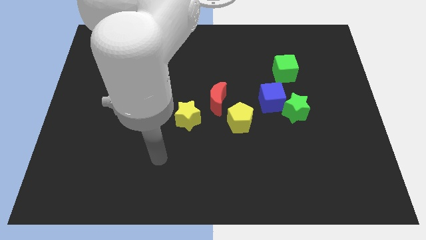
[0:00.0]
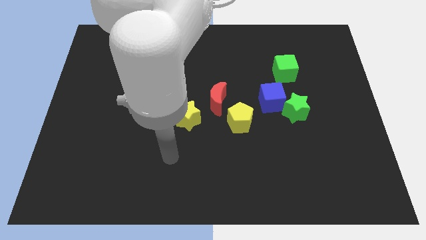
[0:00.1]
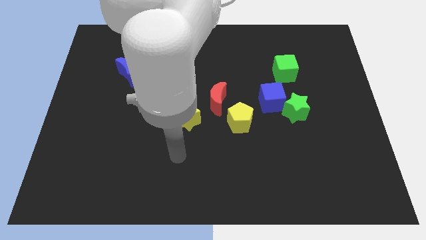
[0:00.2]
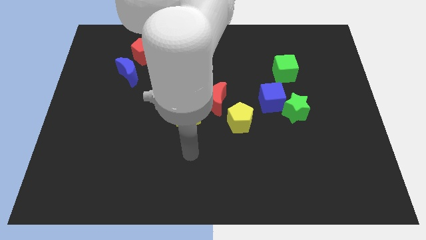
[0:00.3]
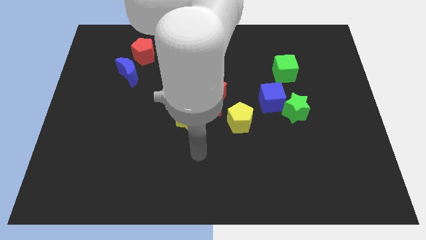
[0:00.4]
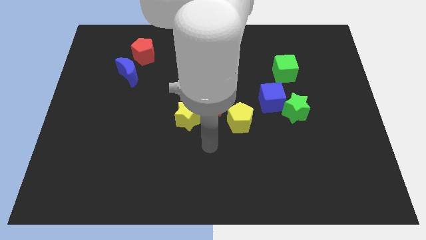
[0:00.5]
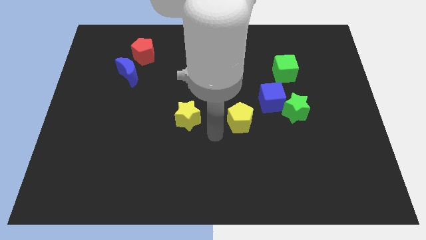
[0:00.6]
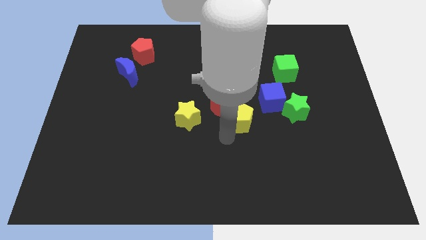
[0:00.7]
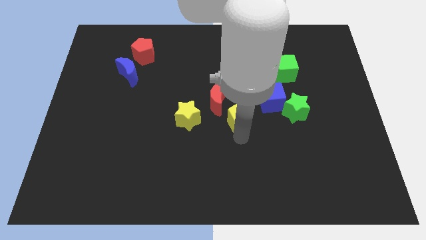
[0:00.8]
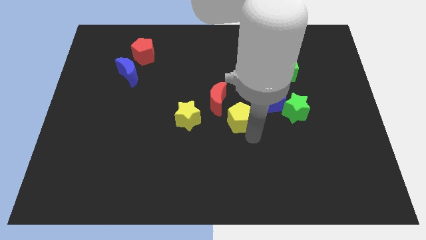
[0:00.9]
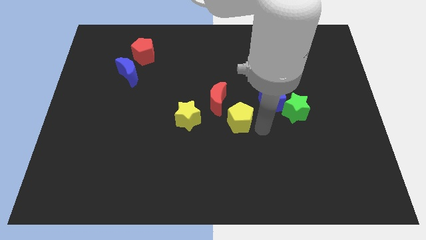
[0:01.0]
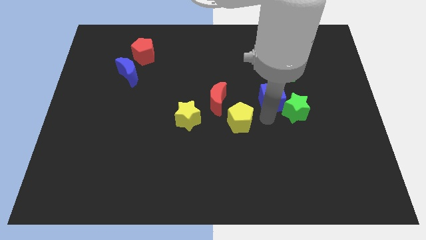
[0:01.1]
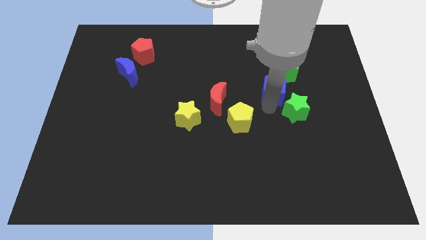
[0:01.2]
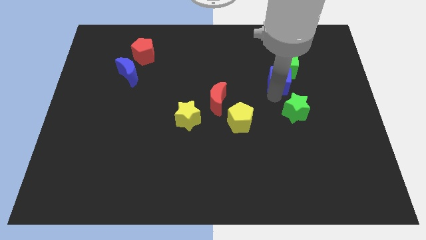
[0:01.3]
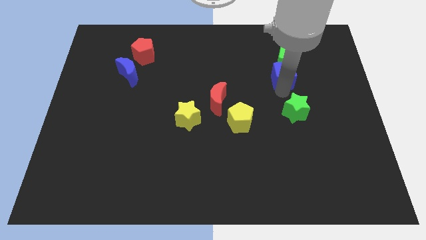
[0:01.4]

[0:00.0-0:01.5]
pull the green star apart from the blue cube

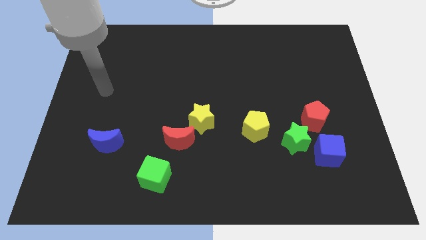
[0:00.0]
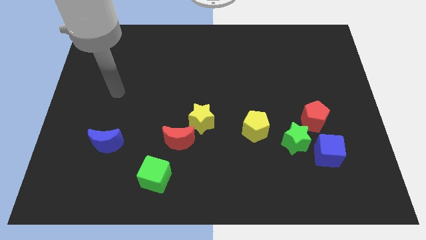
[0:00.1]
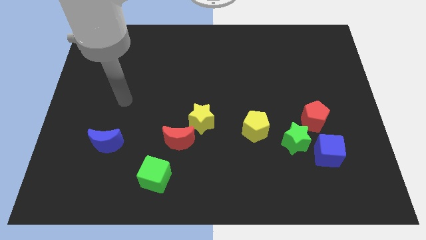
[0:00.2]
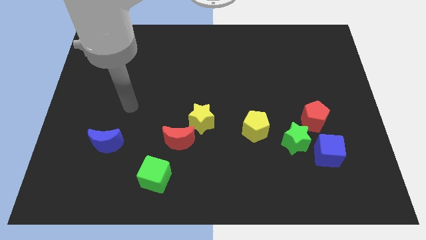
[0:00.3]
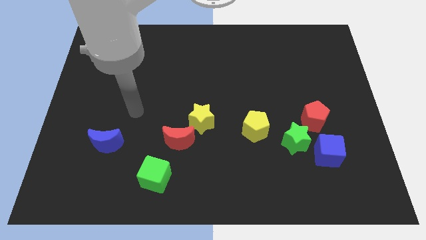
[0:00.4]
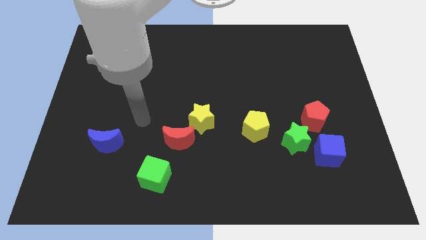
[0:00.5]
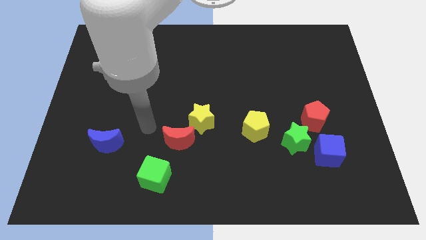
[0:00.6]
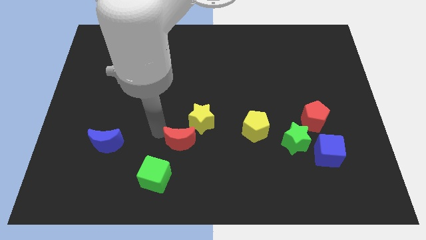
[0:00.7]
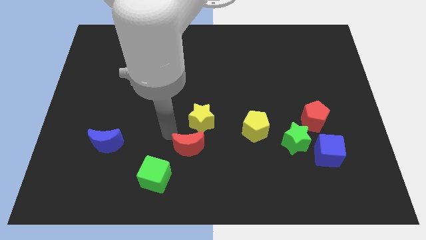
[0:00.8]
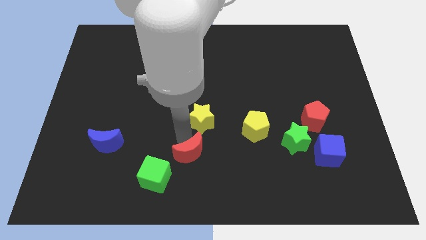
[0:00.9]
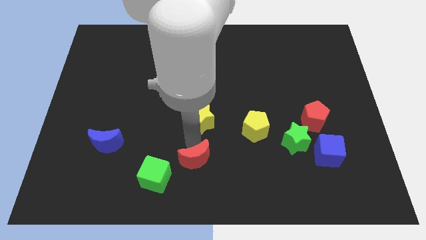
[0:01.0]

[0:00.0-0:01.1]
pull the yellow star apart from the red moon

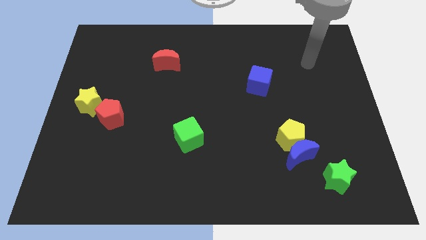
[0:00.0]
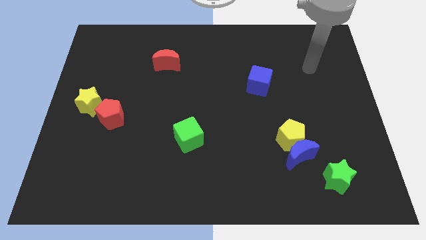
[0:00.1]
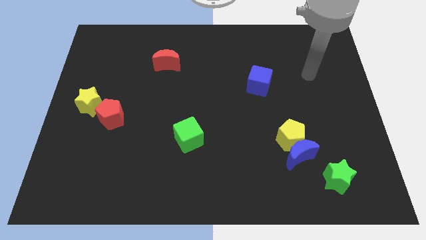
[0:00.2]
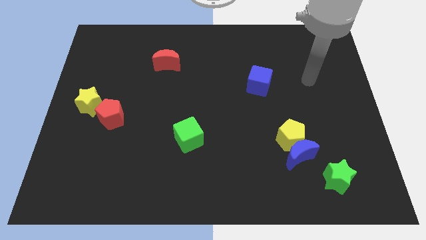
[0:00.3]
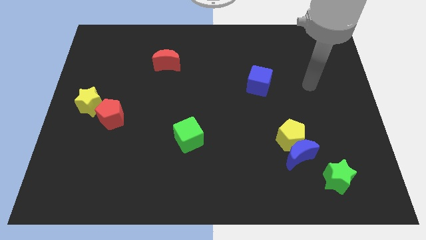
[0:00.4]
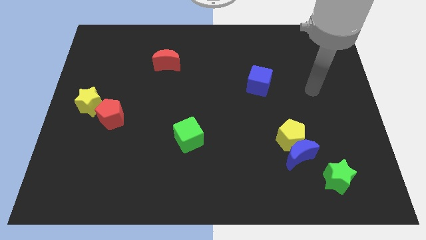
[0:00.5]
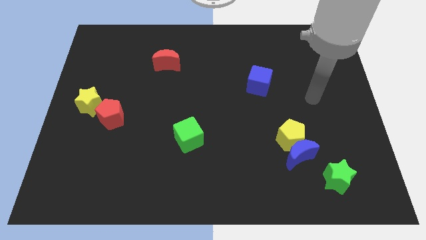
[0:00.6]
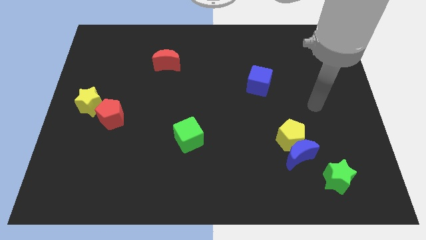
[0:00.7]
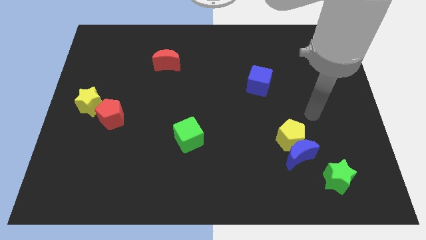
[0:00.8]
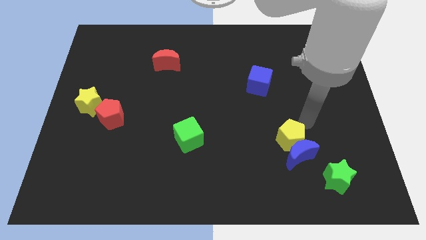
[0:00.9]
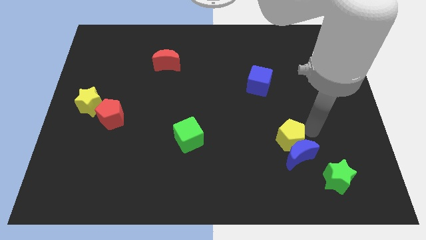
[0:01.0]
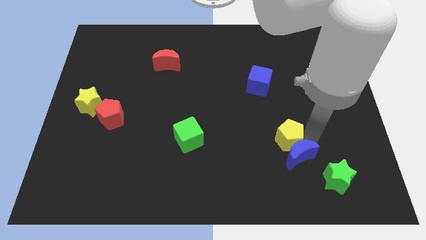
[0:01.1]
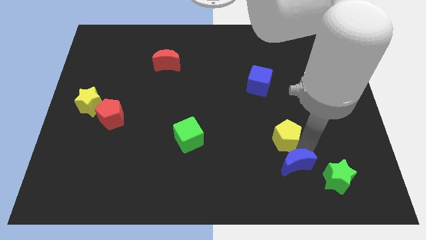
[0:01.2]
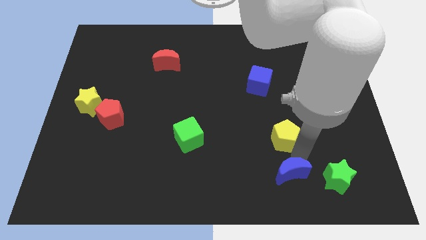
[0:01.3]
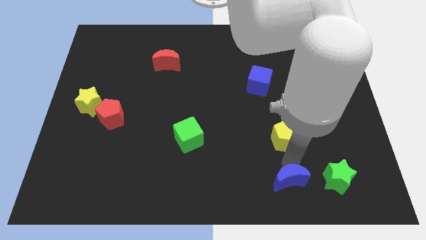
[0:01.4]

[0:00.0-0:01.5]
move the yellow pentagon away from the blue moon

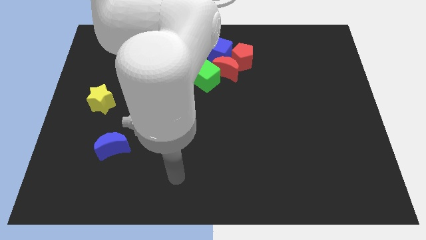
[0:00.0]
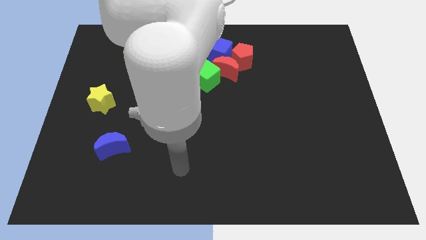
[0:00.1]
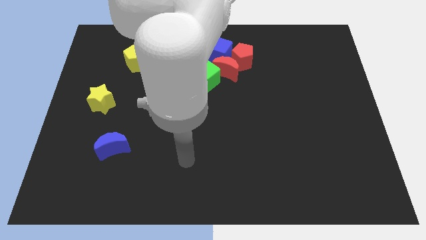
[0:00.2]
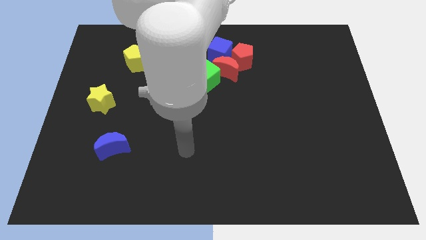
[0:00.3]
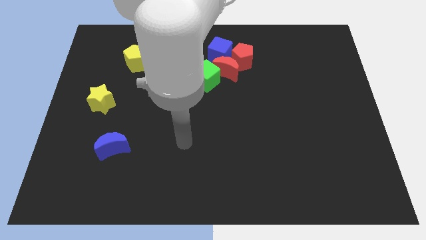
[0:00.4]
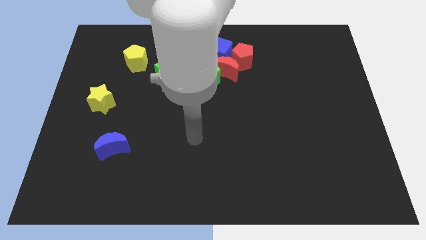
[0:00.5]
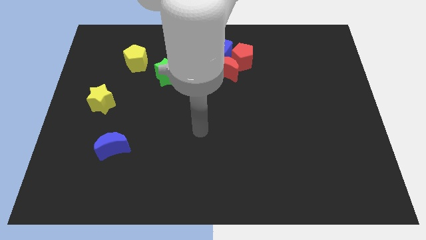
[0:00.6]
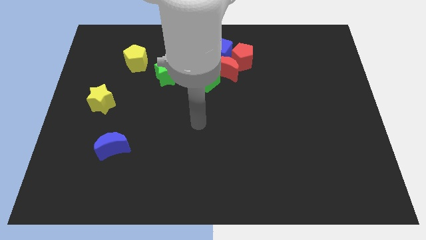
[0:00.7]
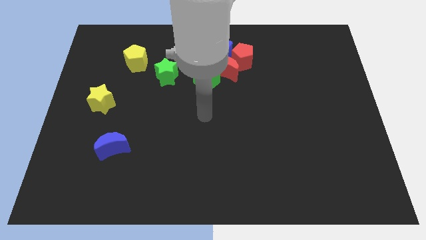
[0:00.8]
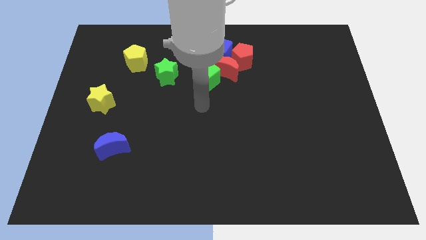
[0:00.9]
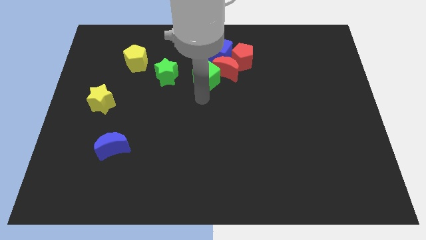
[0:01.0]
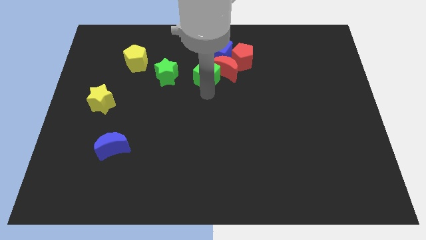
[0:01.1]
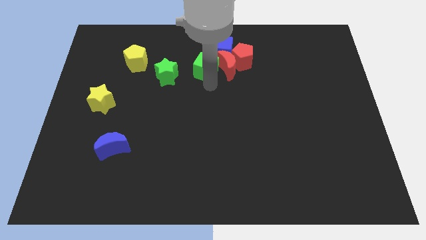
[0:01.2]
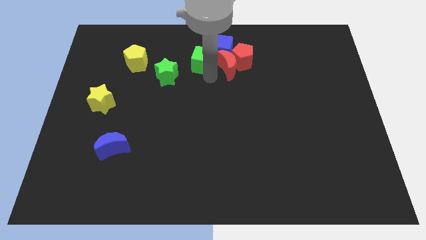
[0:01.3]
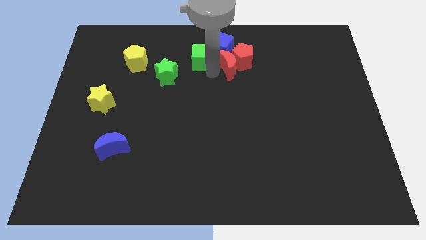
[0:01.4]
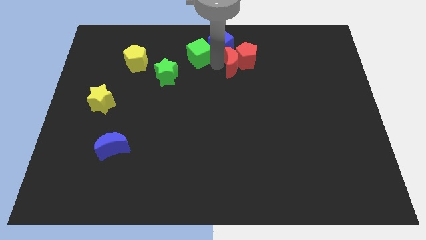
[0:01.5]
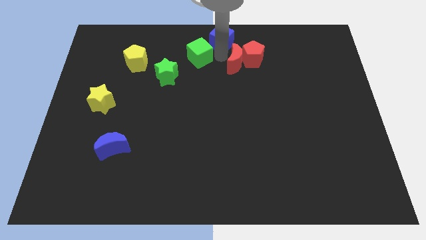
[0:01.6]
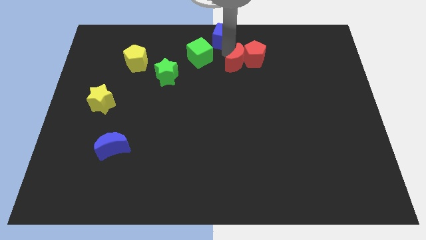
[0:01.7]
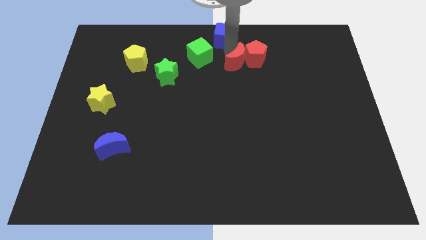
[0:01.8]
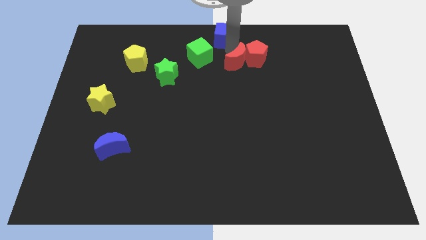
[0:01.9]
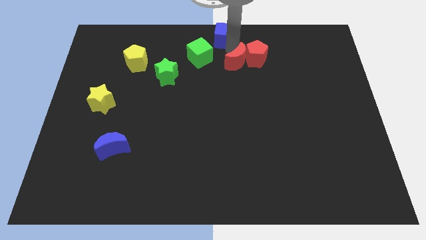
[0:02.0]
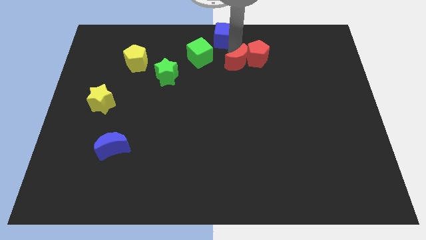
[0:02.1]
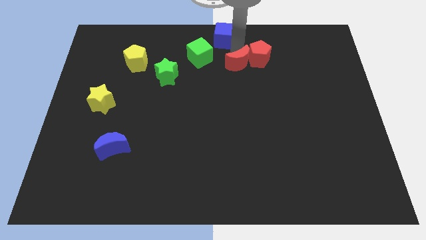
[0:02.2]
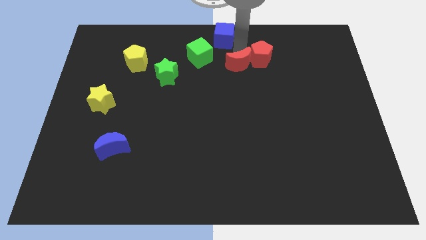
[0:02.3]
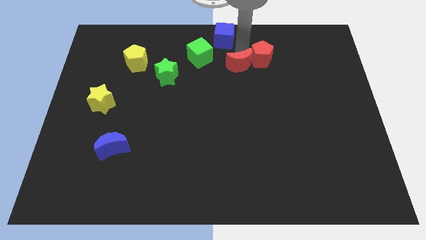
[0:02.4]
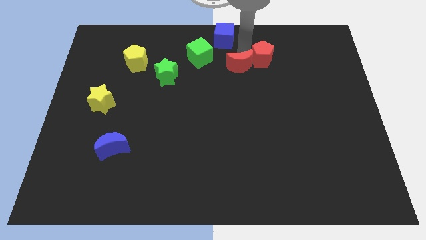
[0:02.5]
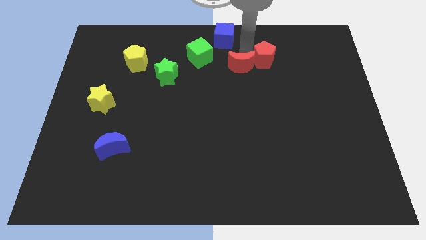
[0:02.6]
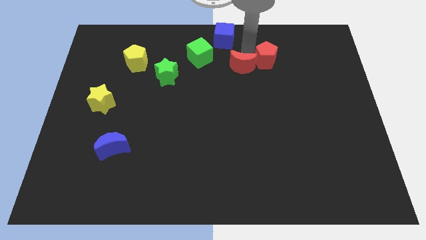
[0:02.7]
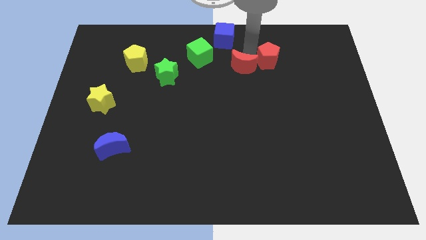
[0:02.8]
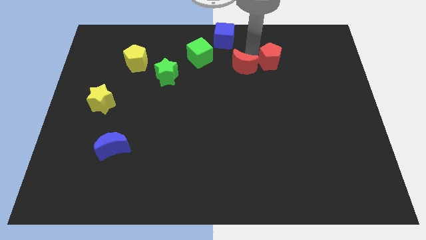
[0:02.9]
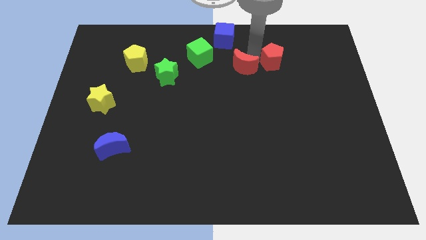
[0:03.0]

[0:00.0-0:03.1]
pull the red pentagon apart from the red moon and blue cube

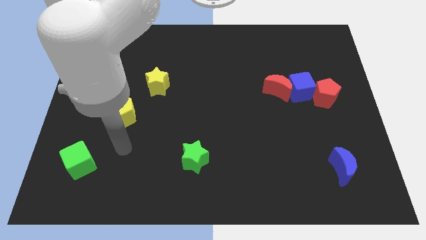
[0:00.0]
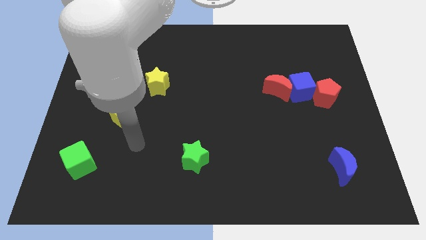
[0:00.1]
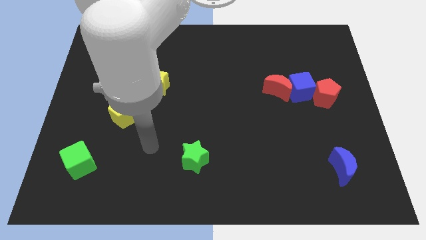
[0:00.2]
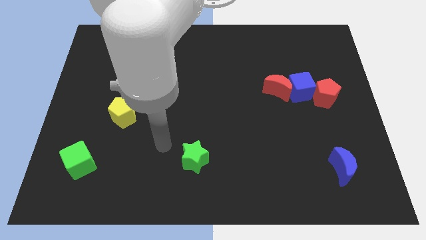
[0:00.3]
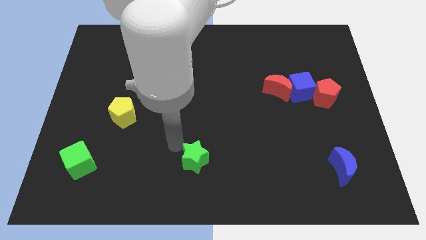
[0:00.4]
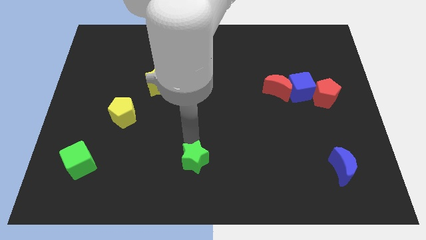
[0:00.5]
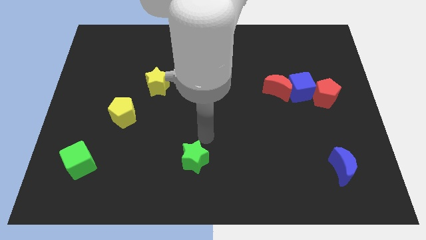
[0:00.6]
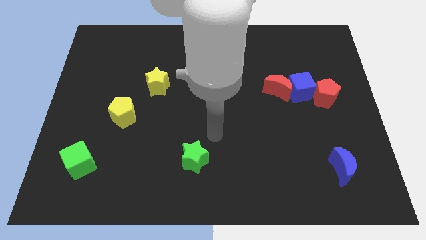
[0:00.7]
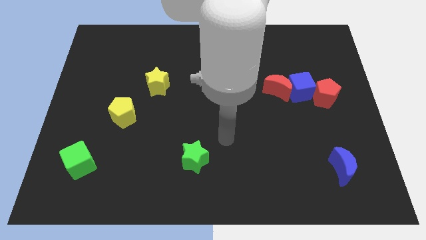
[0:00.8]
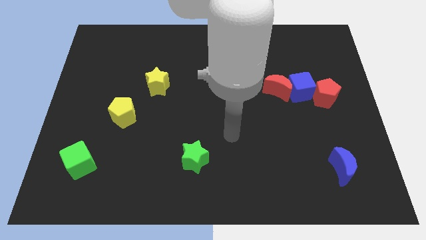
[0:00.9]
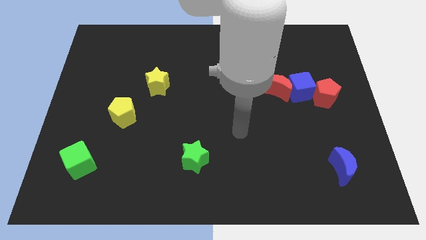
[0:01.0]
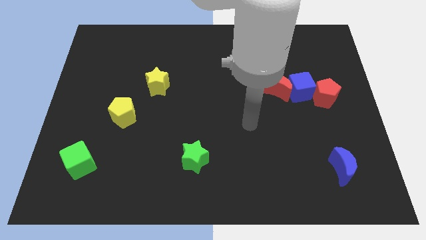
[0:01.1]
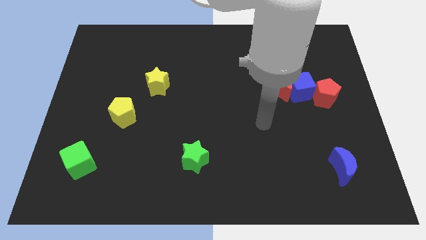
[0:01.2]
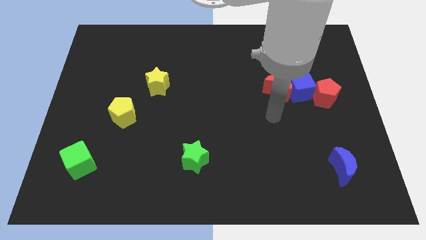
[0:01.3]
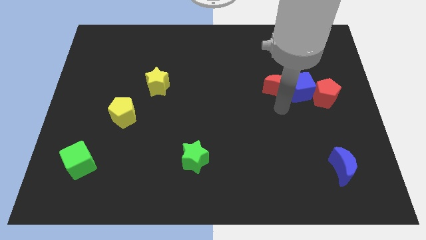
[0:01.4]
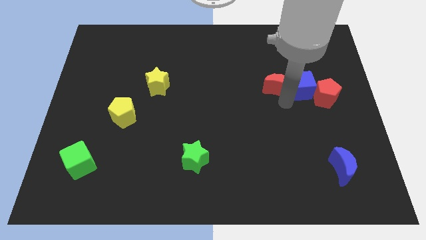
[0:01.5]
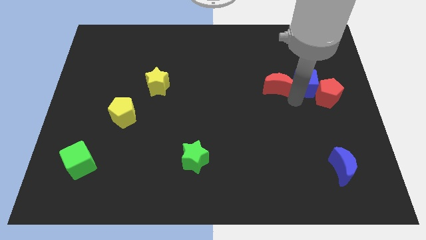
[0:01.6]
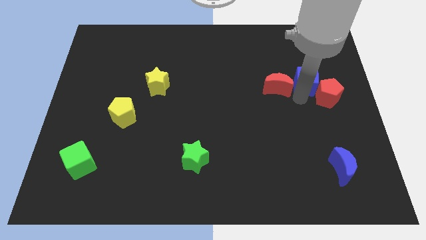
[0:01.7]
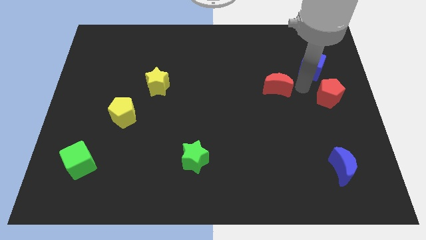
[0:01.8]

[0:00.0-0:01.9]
separate the red moon from the blue cube

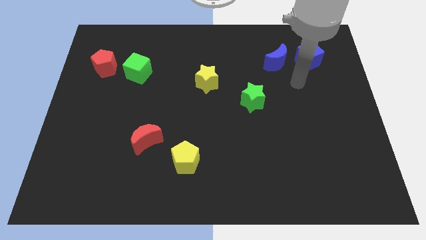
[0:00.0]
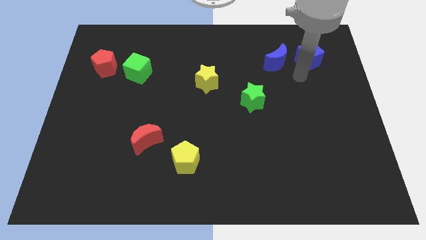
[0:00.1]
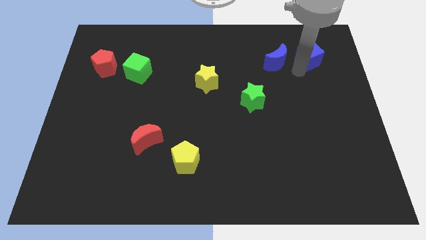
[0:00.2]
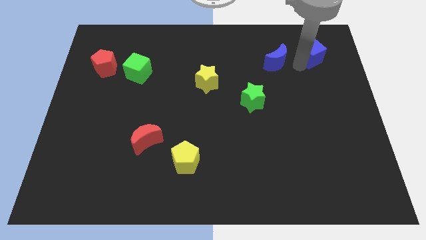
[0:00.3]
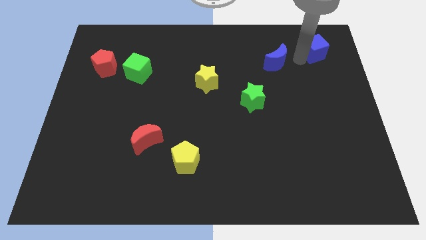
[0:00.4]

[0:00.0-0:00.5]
separate the blue moon from the blue cube
